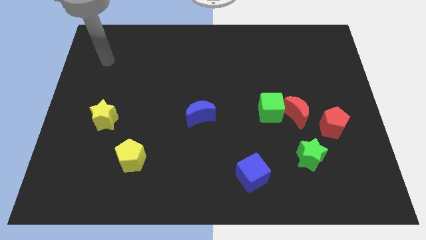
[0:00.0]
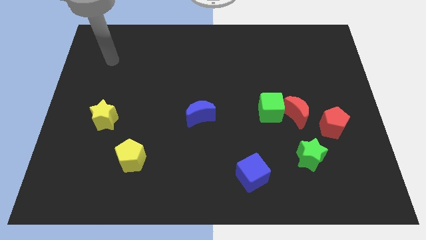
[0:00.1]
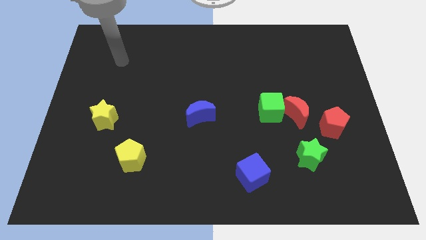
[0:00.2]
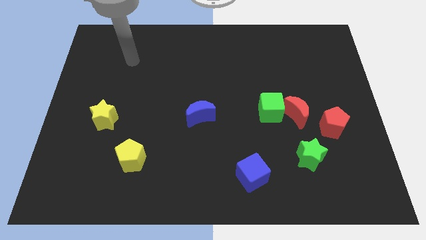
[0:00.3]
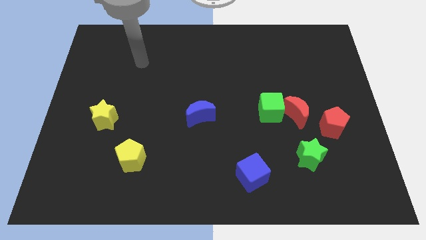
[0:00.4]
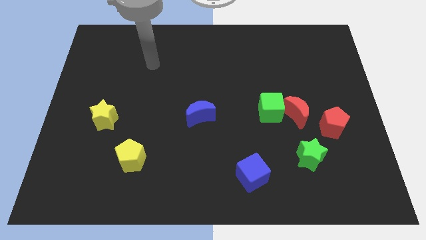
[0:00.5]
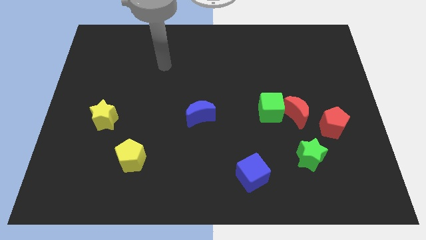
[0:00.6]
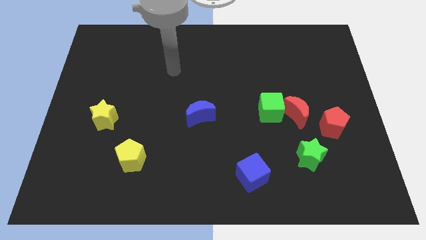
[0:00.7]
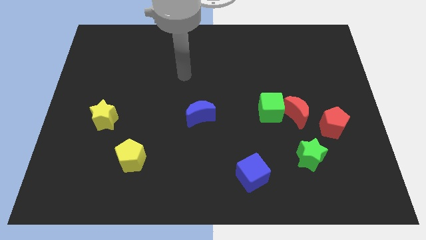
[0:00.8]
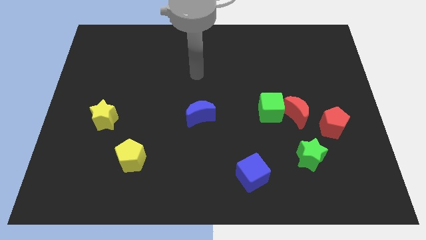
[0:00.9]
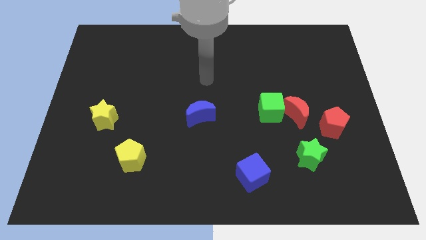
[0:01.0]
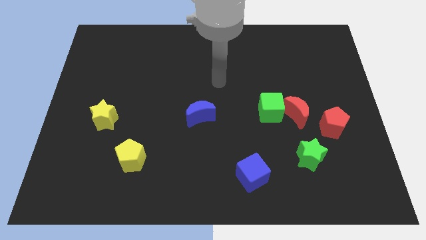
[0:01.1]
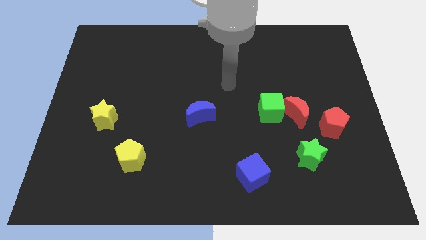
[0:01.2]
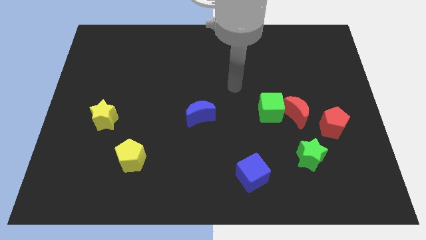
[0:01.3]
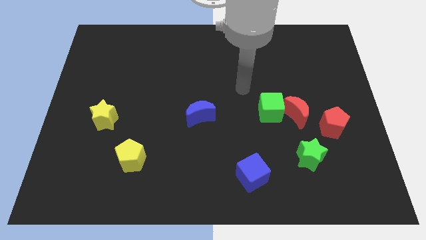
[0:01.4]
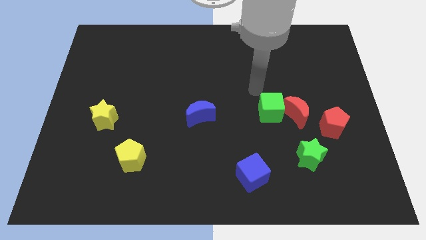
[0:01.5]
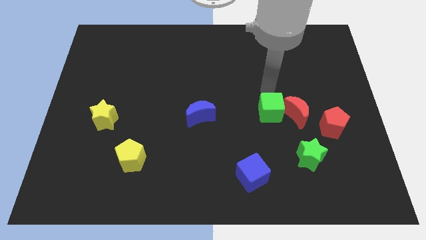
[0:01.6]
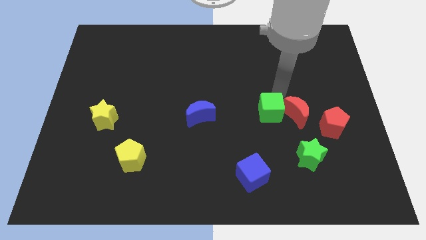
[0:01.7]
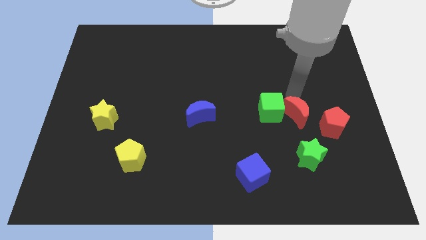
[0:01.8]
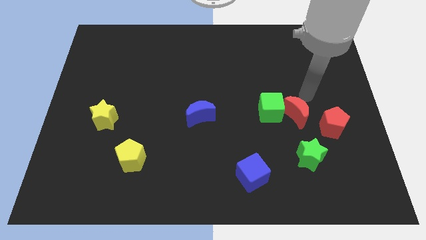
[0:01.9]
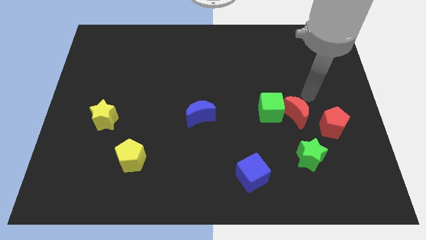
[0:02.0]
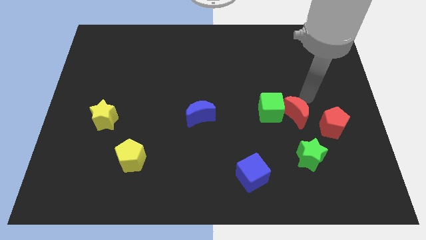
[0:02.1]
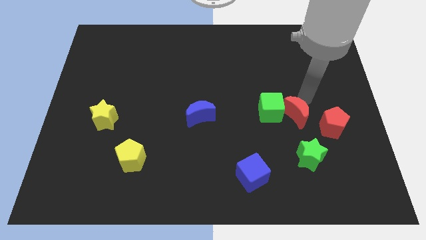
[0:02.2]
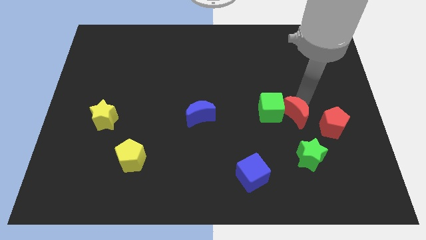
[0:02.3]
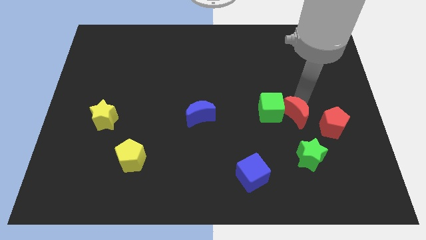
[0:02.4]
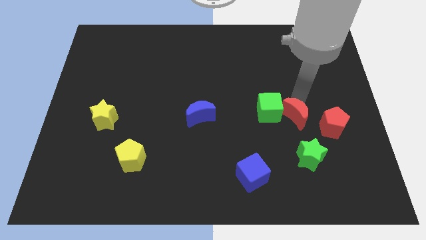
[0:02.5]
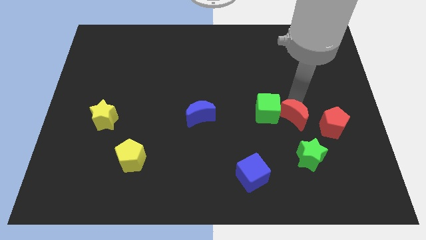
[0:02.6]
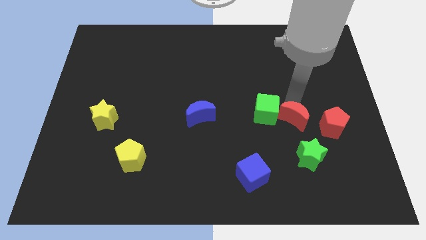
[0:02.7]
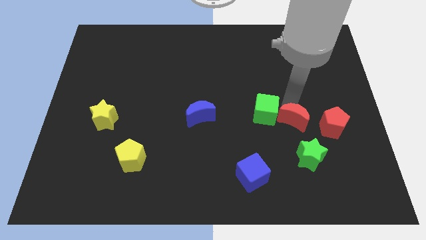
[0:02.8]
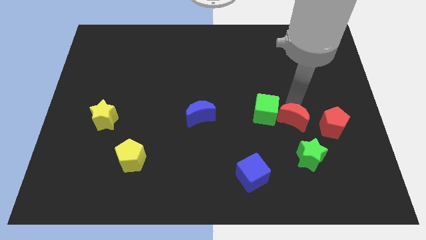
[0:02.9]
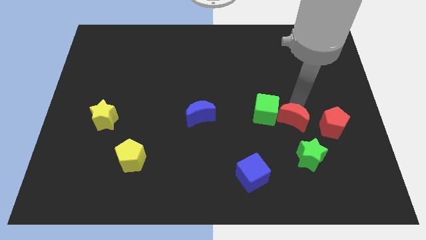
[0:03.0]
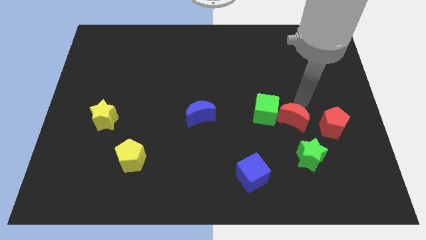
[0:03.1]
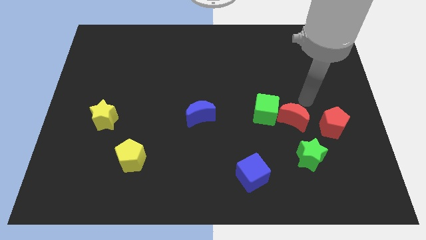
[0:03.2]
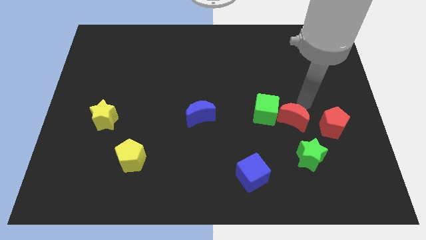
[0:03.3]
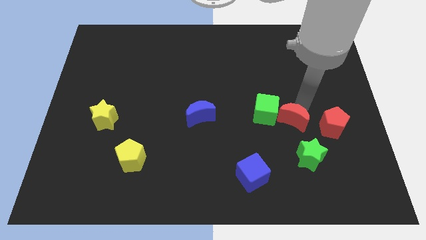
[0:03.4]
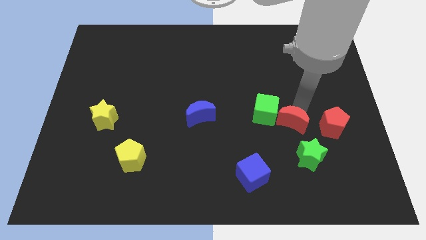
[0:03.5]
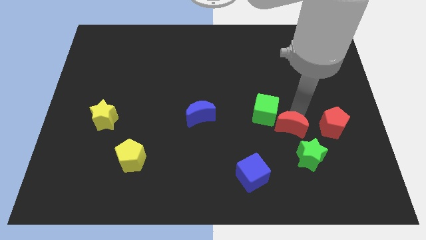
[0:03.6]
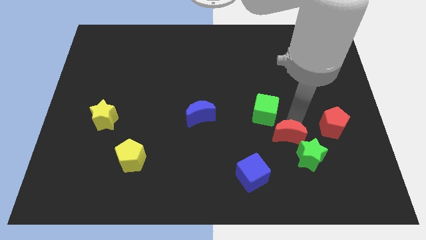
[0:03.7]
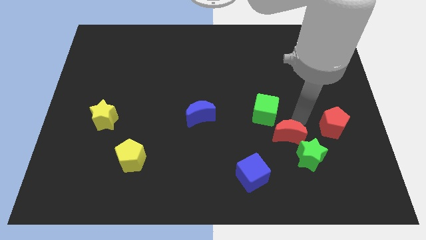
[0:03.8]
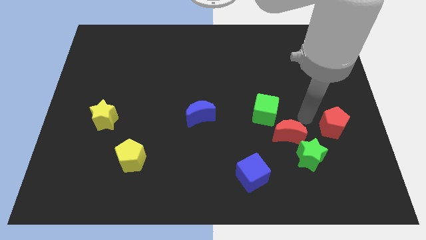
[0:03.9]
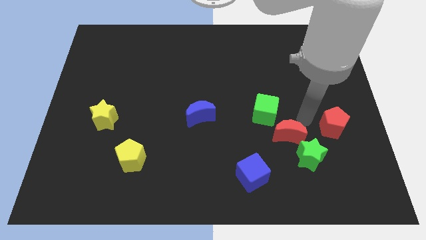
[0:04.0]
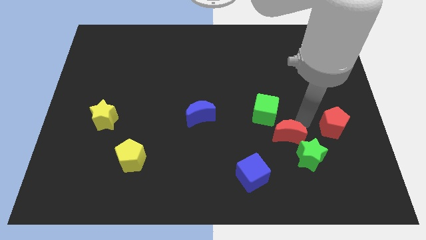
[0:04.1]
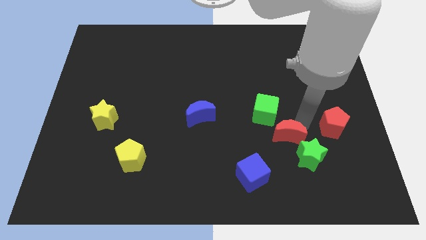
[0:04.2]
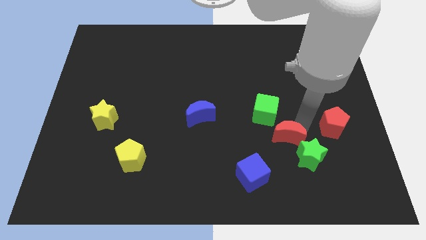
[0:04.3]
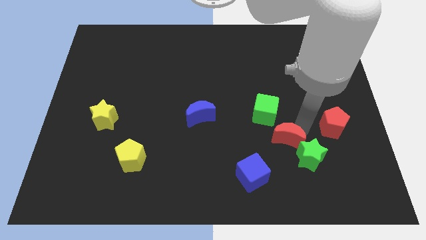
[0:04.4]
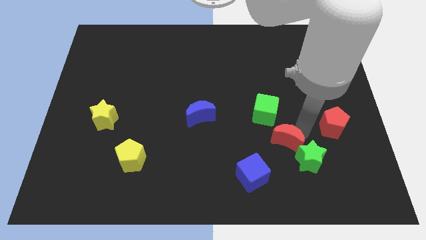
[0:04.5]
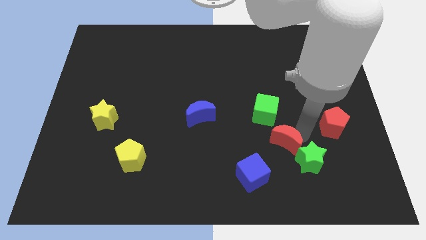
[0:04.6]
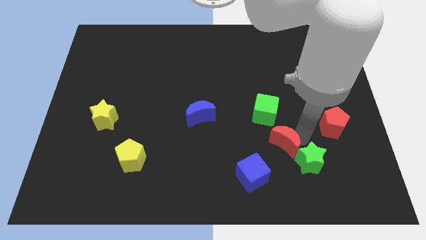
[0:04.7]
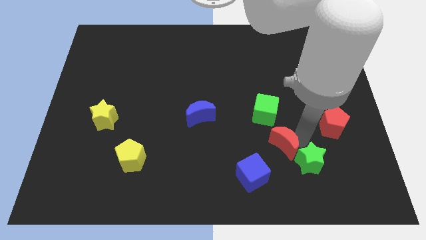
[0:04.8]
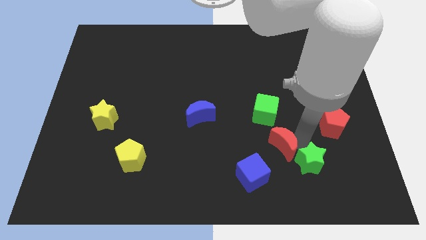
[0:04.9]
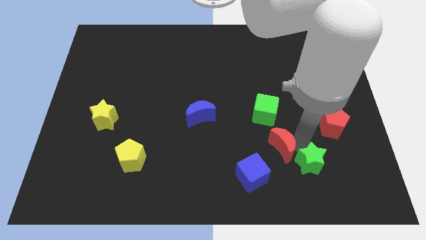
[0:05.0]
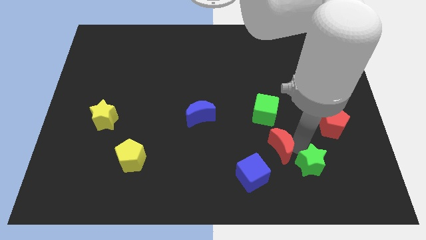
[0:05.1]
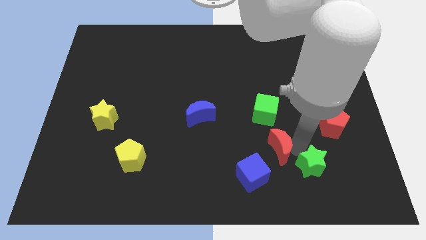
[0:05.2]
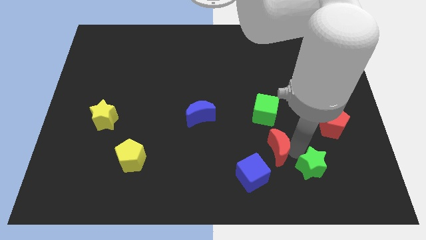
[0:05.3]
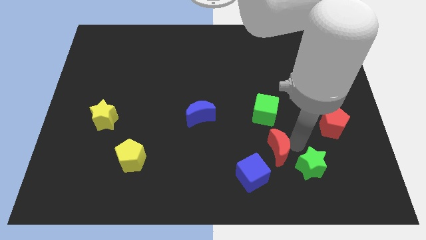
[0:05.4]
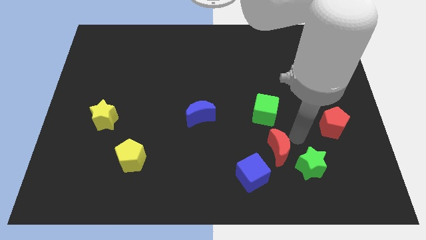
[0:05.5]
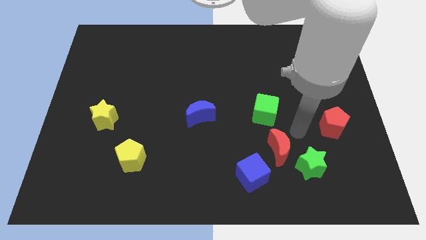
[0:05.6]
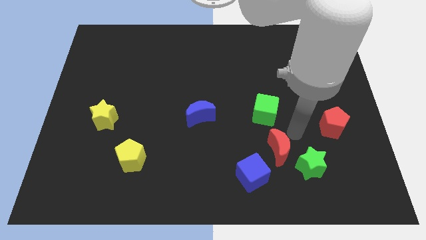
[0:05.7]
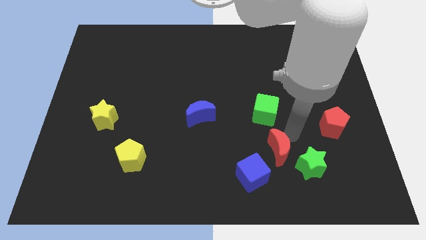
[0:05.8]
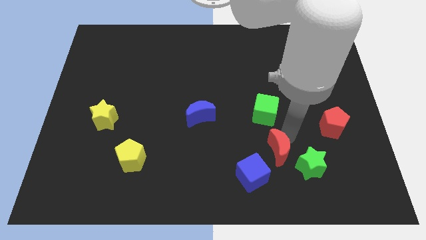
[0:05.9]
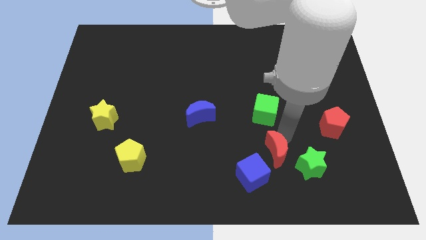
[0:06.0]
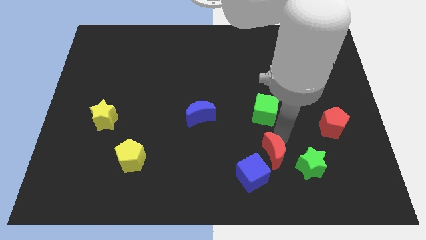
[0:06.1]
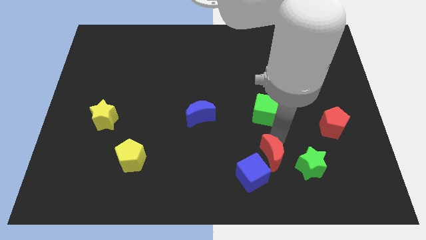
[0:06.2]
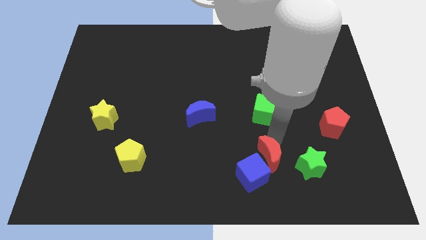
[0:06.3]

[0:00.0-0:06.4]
slide the red moon next to the blue cube

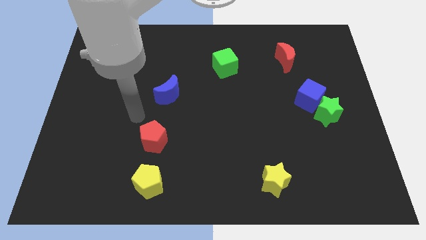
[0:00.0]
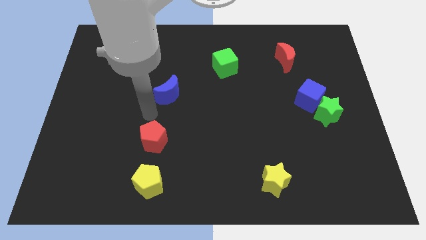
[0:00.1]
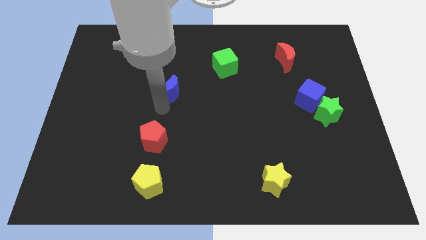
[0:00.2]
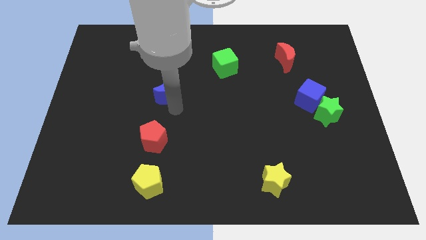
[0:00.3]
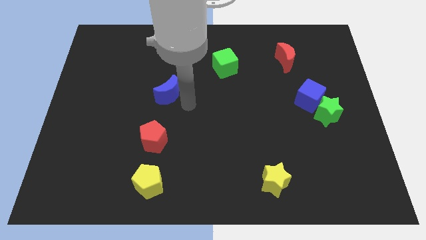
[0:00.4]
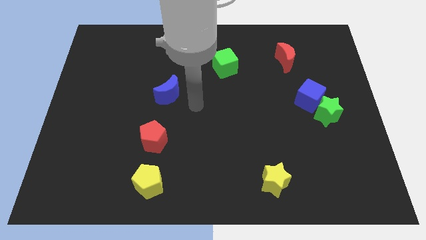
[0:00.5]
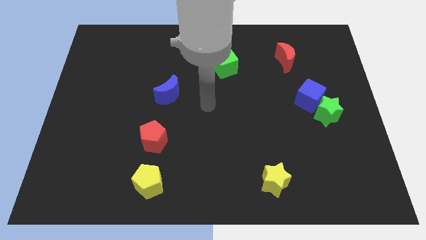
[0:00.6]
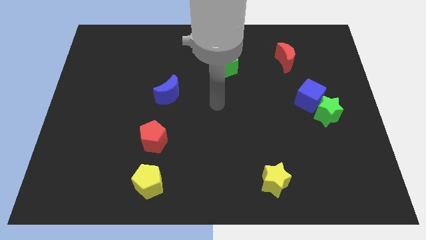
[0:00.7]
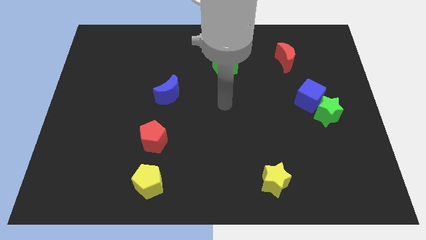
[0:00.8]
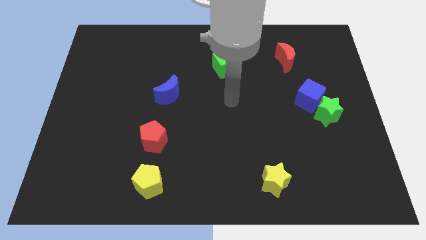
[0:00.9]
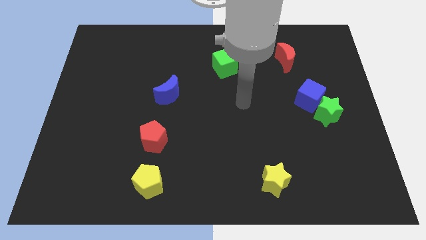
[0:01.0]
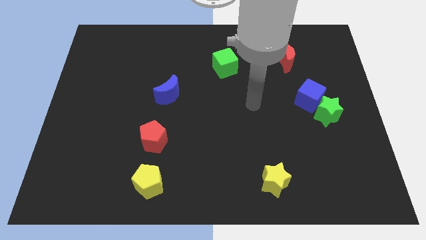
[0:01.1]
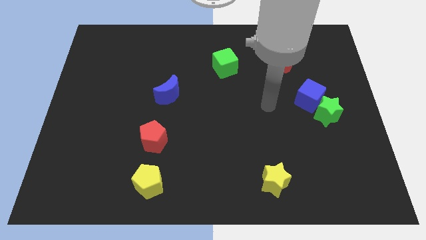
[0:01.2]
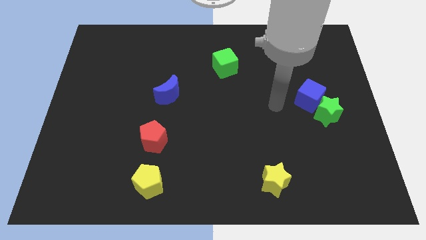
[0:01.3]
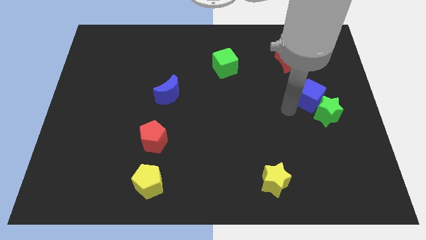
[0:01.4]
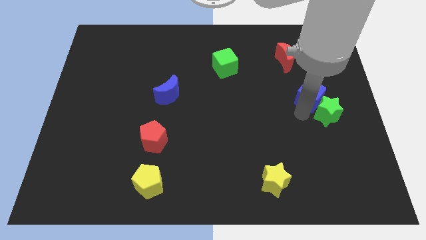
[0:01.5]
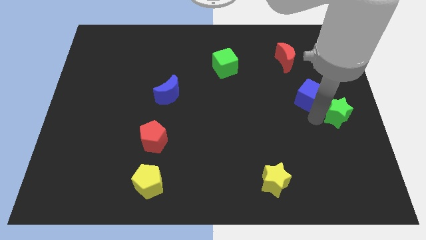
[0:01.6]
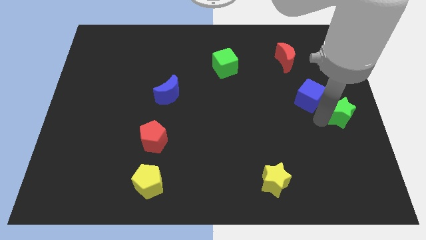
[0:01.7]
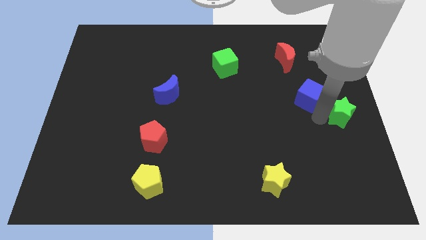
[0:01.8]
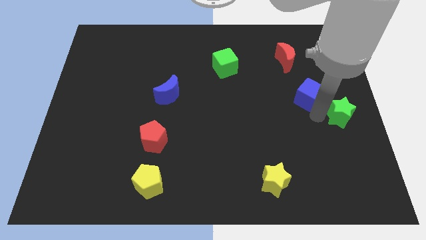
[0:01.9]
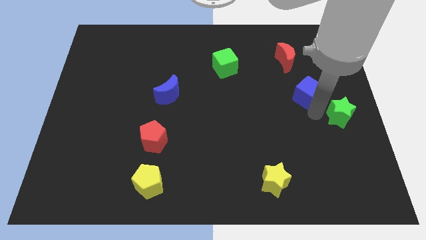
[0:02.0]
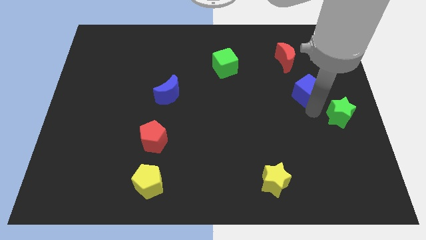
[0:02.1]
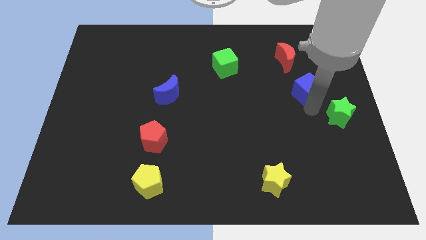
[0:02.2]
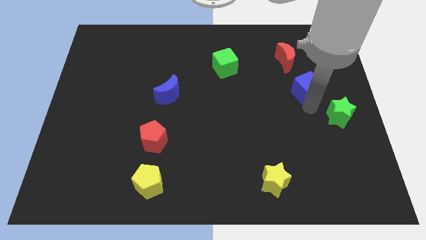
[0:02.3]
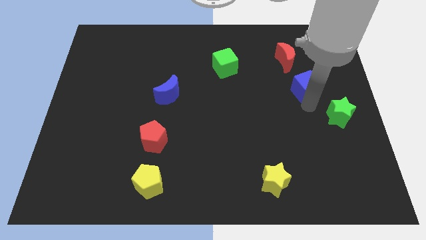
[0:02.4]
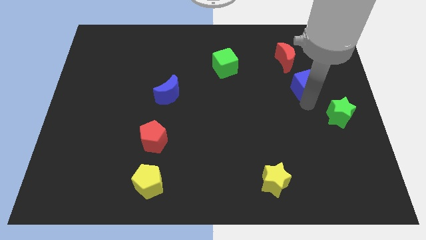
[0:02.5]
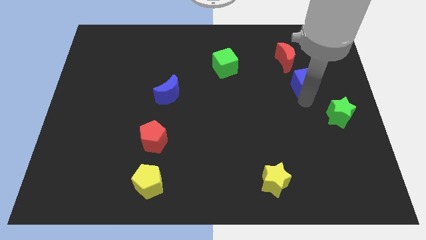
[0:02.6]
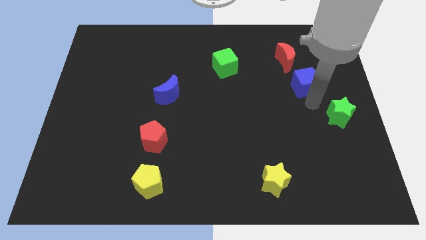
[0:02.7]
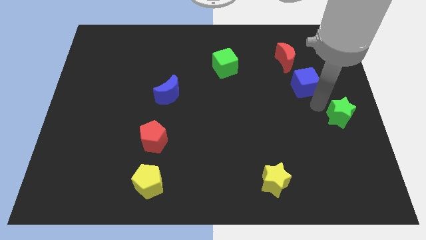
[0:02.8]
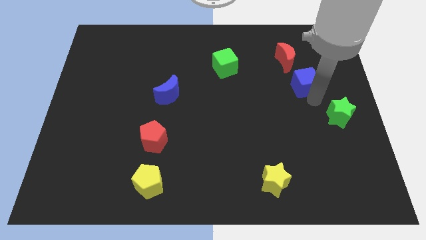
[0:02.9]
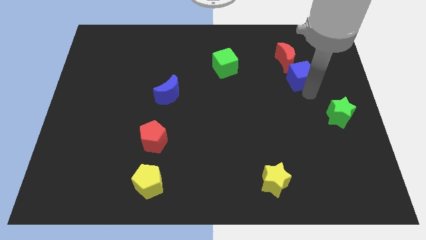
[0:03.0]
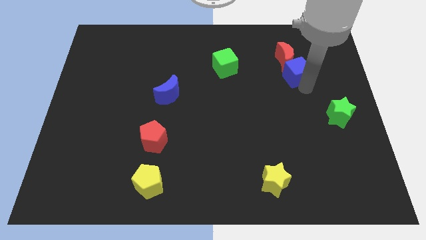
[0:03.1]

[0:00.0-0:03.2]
push the blue cube close to the red moon
